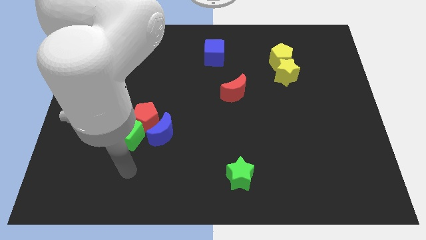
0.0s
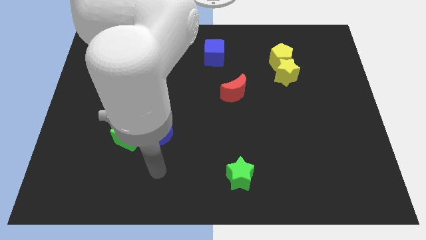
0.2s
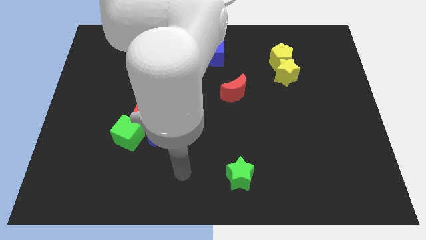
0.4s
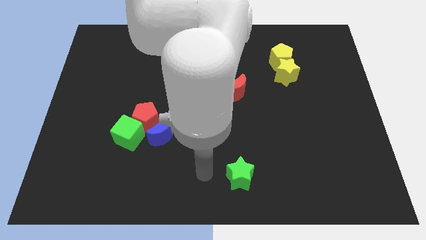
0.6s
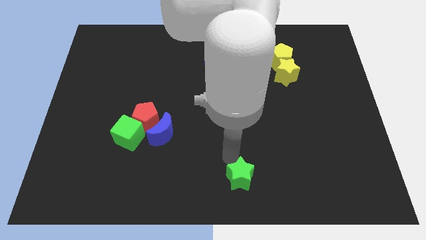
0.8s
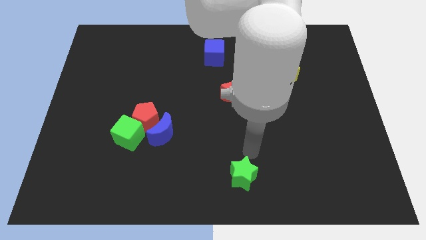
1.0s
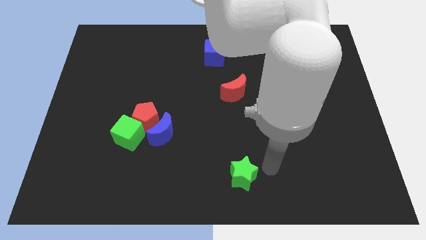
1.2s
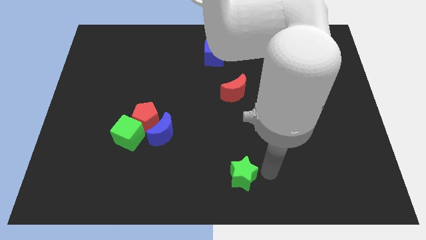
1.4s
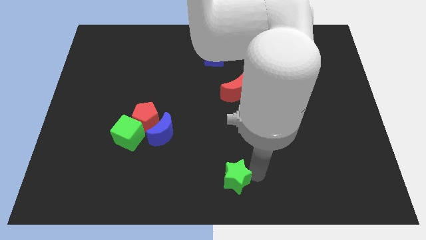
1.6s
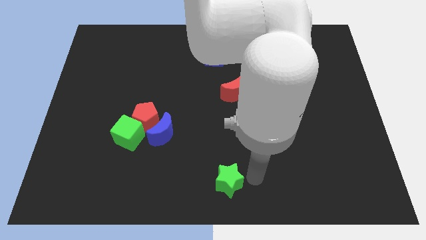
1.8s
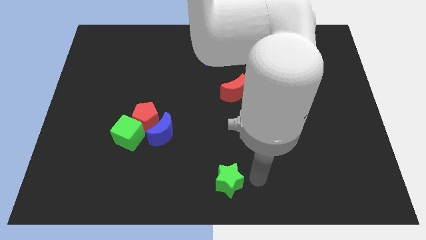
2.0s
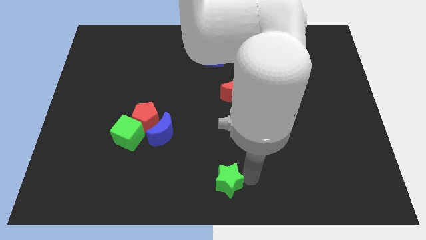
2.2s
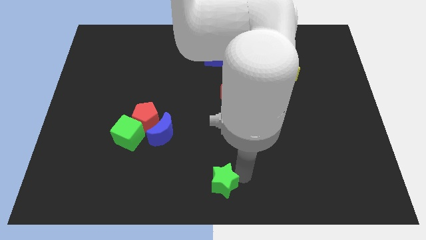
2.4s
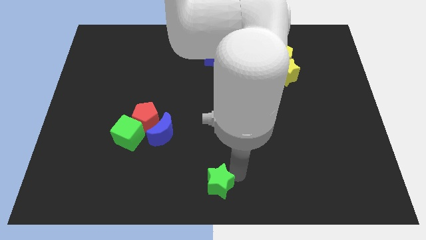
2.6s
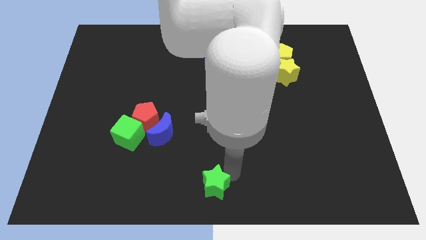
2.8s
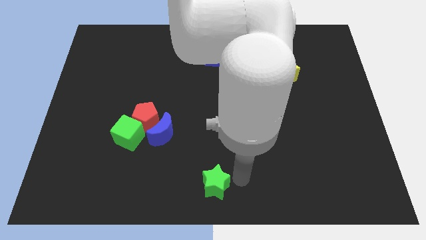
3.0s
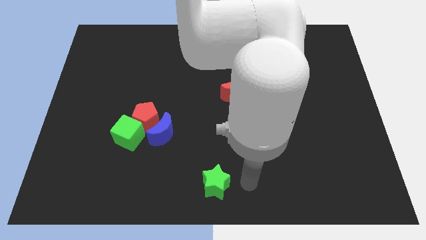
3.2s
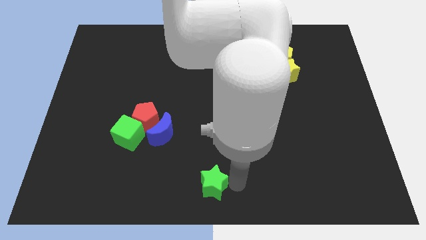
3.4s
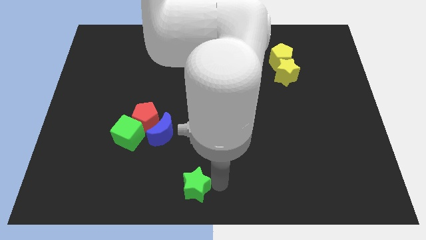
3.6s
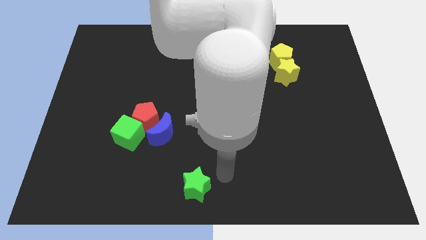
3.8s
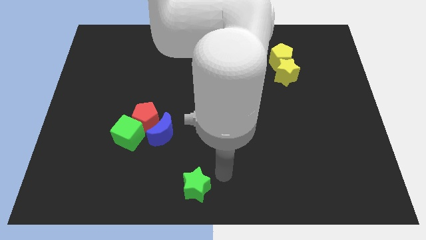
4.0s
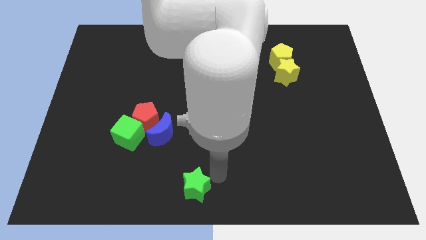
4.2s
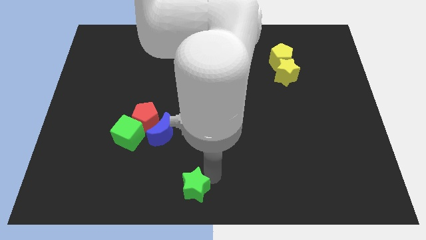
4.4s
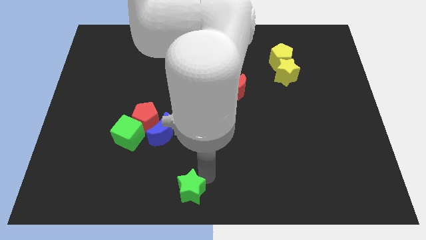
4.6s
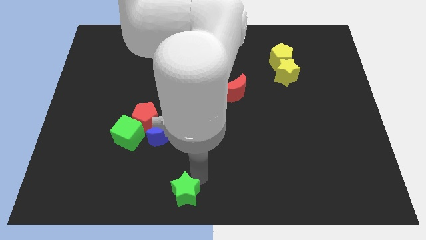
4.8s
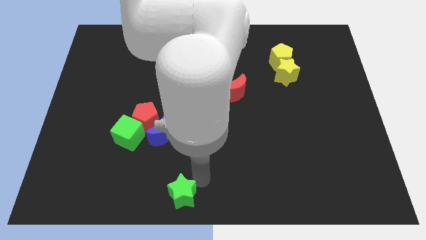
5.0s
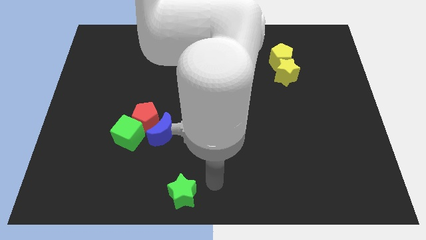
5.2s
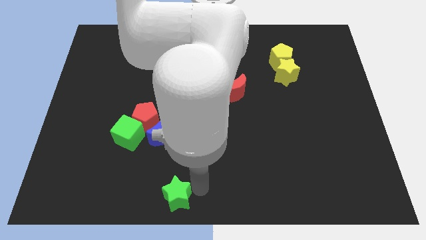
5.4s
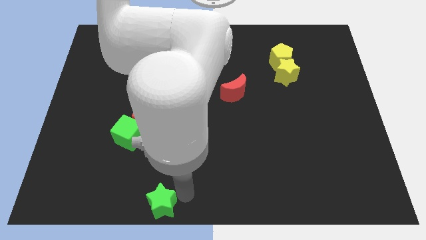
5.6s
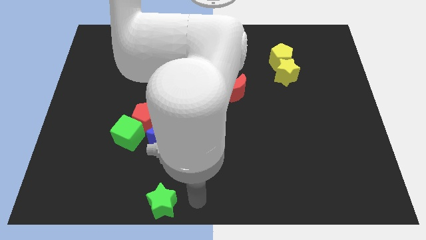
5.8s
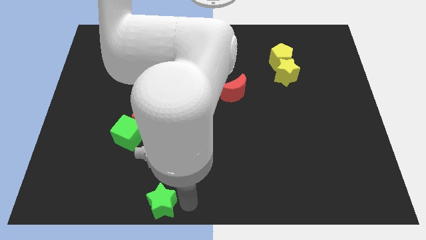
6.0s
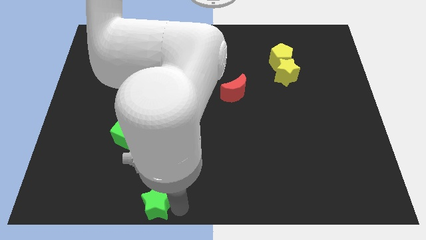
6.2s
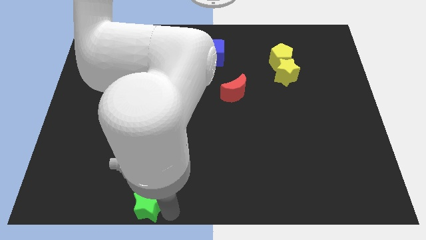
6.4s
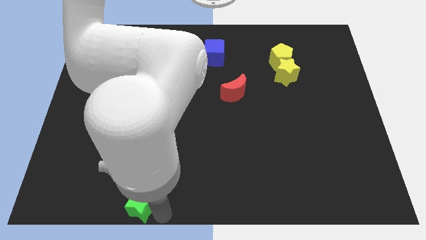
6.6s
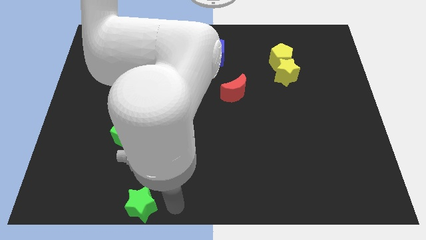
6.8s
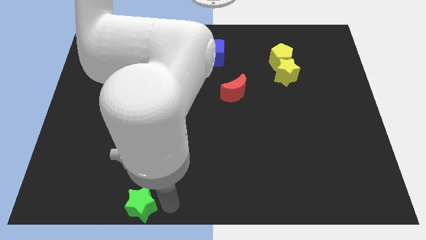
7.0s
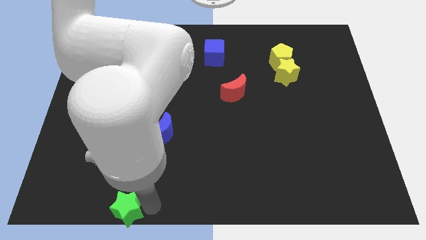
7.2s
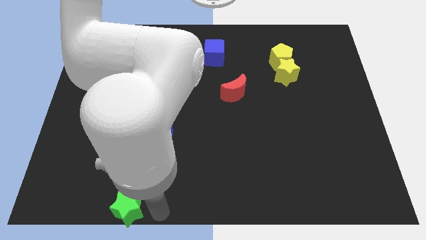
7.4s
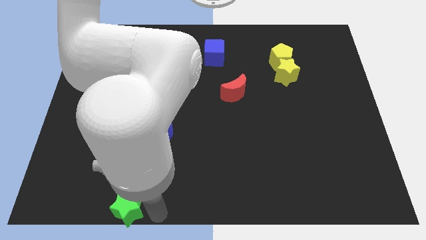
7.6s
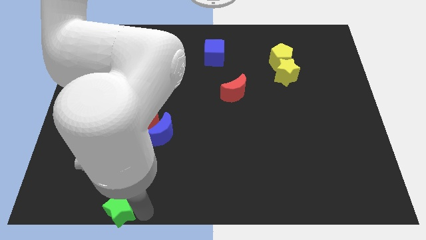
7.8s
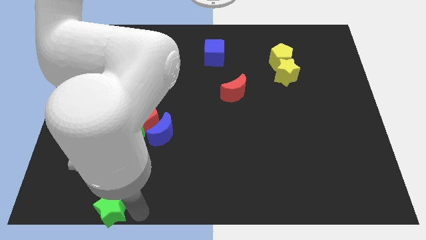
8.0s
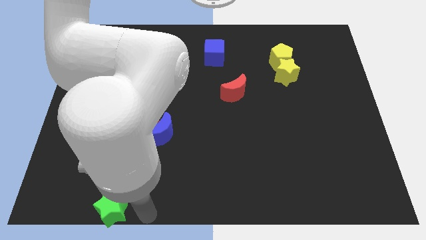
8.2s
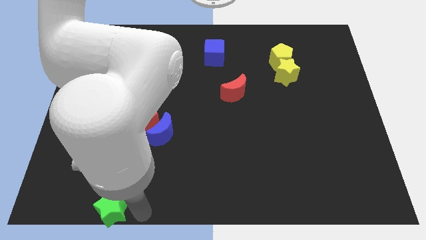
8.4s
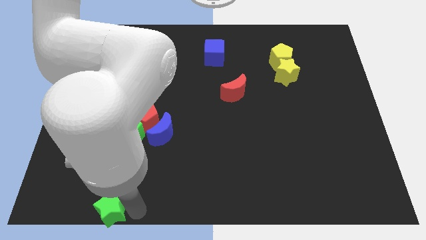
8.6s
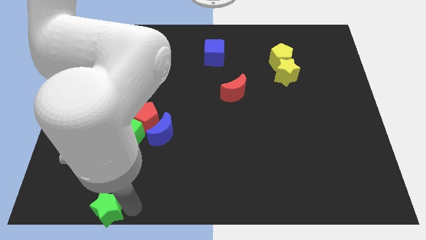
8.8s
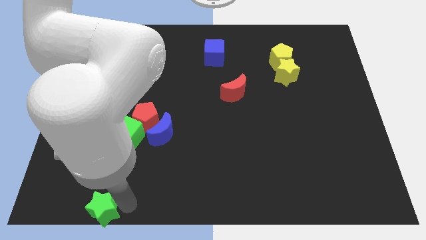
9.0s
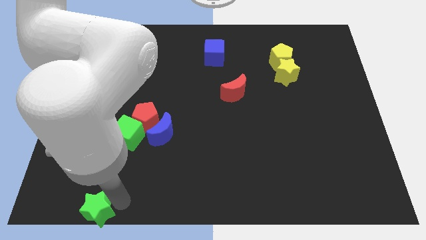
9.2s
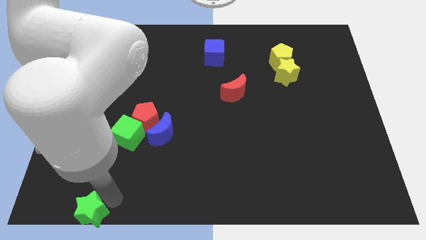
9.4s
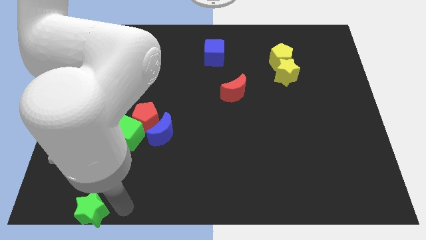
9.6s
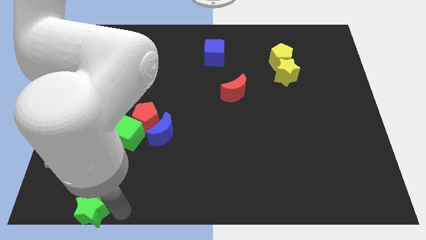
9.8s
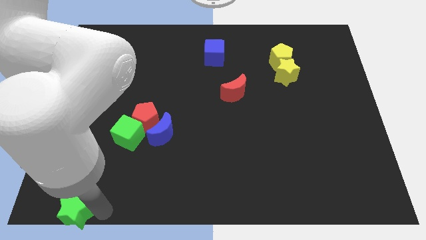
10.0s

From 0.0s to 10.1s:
push the green star to the lower left corner

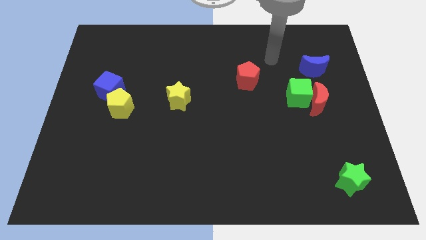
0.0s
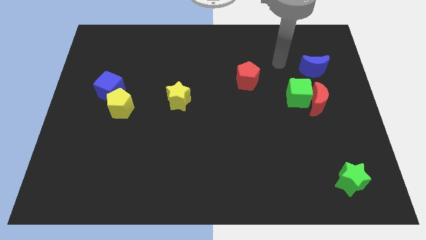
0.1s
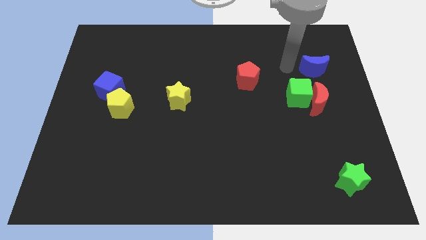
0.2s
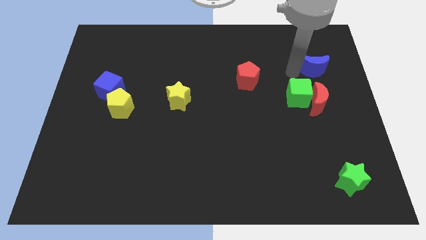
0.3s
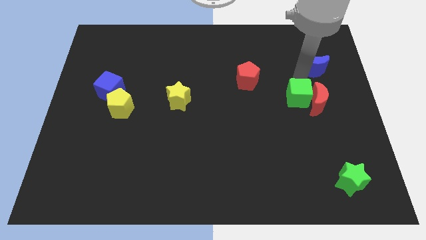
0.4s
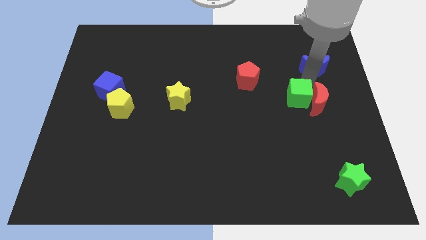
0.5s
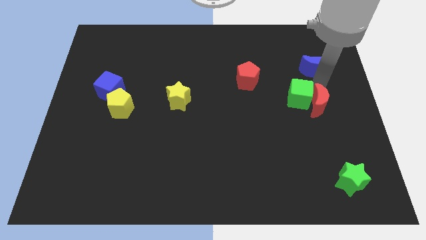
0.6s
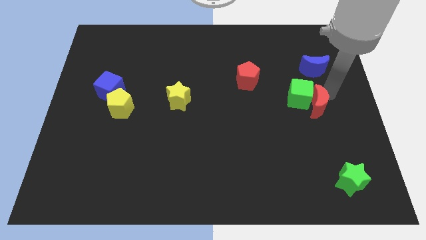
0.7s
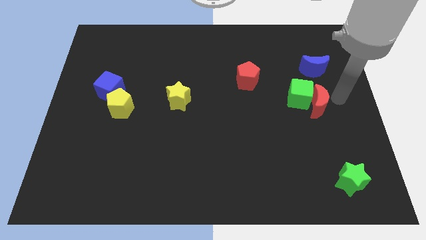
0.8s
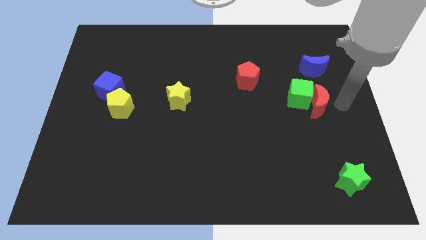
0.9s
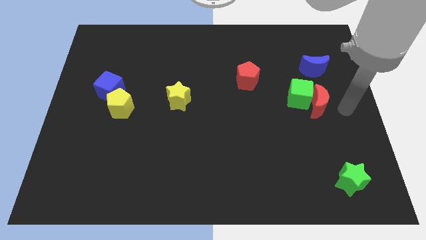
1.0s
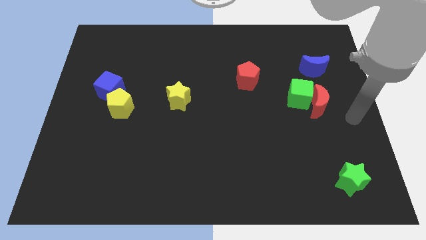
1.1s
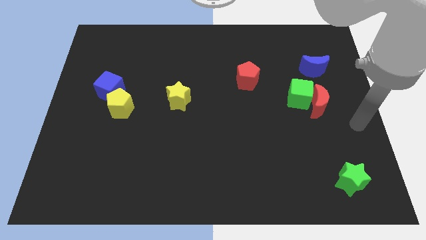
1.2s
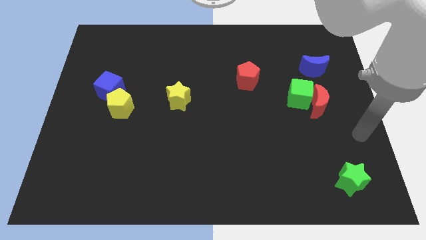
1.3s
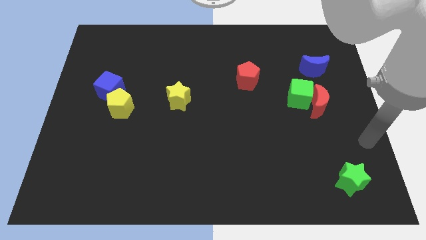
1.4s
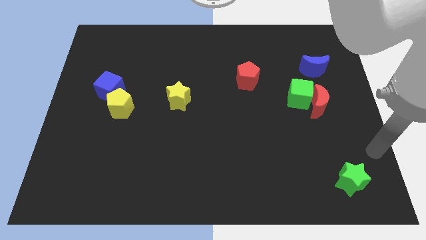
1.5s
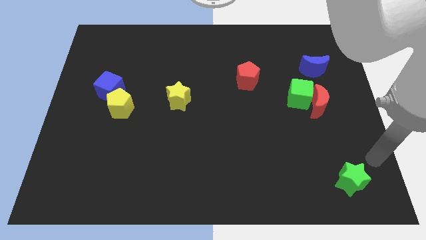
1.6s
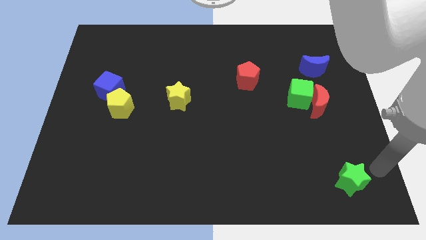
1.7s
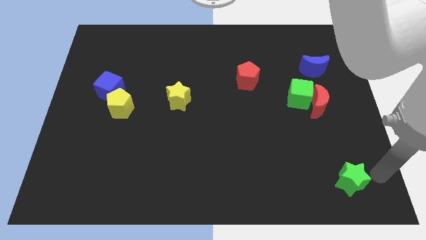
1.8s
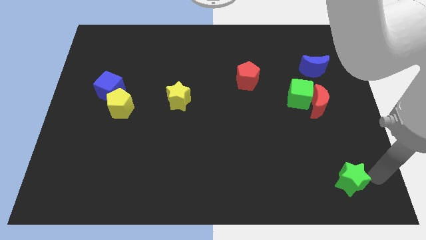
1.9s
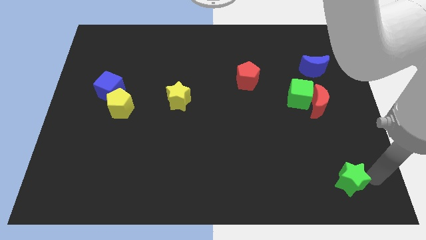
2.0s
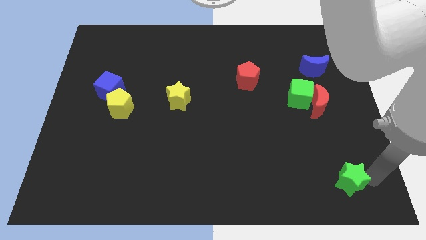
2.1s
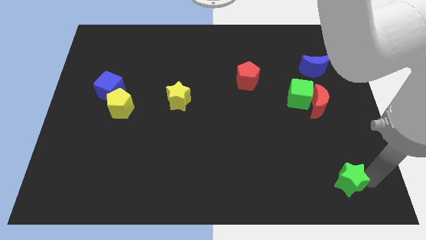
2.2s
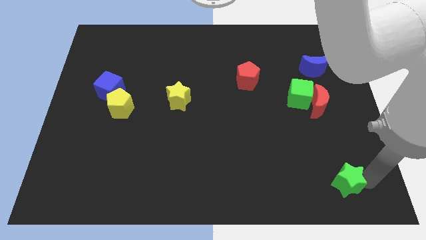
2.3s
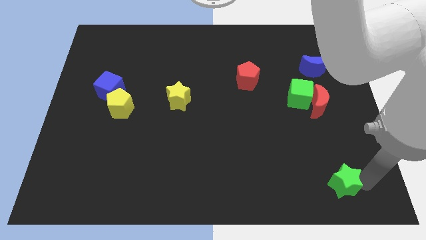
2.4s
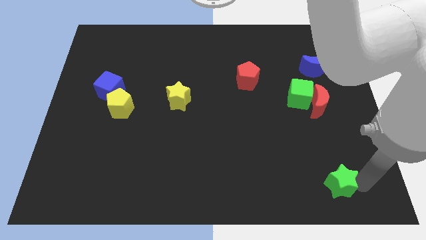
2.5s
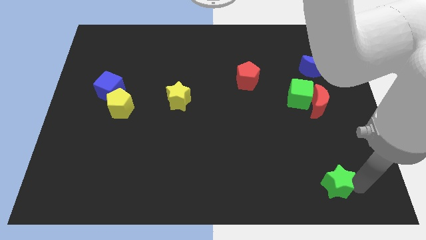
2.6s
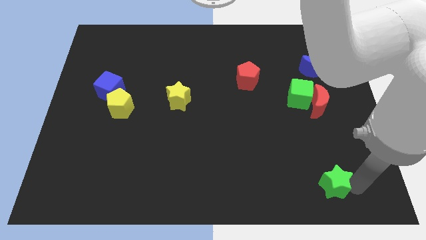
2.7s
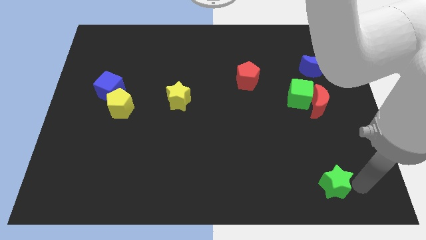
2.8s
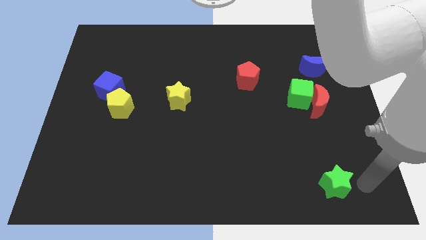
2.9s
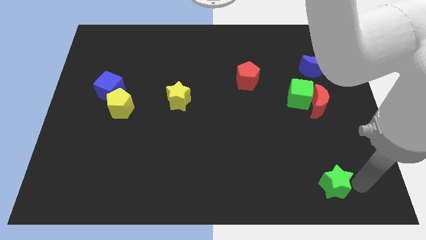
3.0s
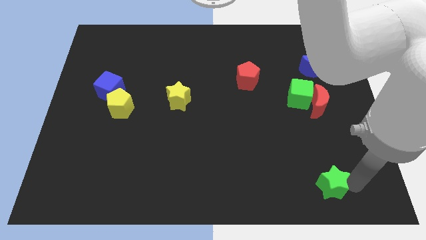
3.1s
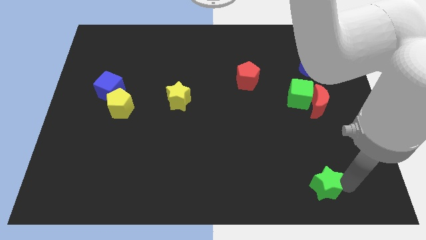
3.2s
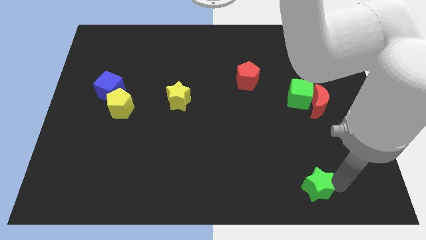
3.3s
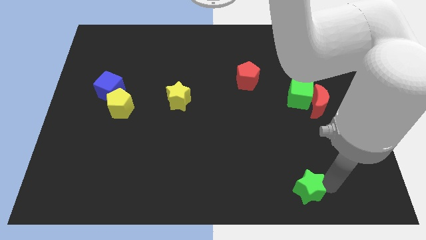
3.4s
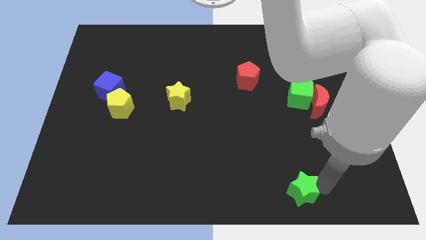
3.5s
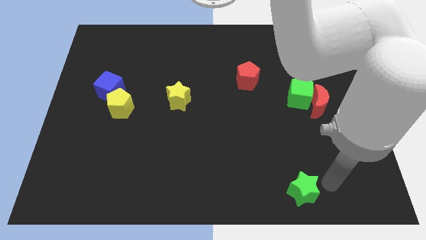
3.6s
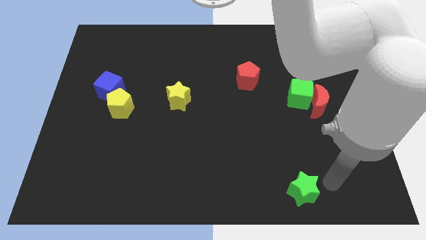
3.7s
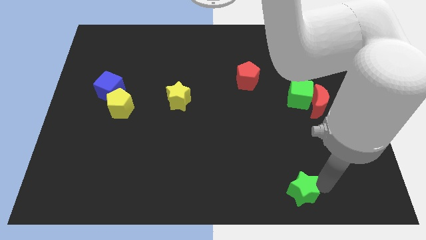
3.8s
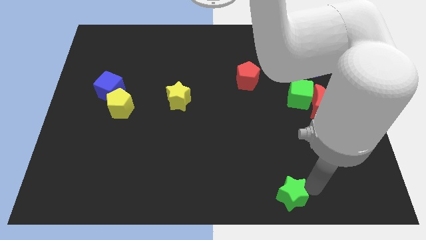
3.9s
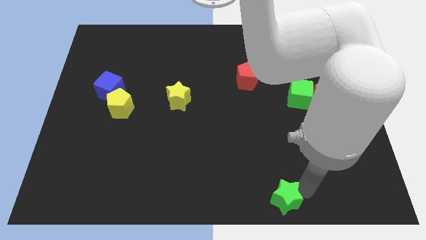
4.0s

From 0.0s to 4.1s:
slide the green star to the bottom
